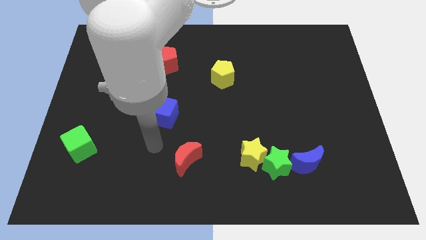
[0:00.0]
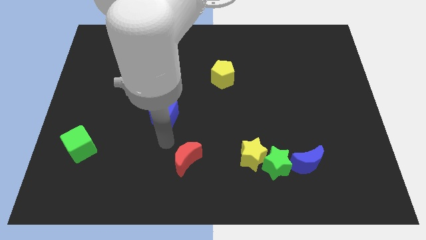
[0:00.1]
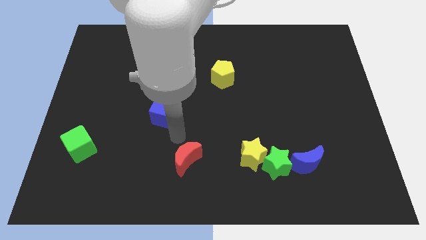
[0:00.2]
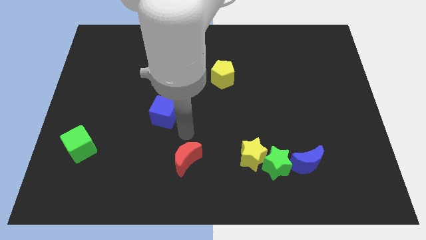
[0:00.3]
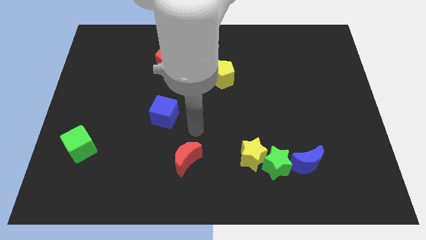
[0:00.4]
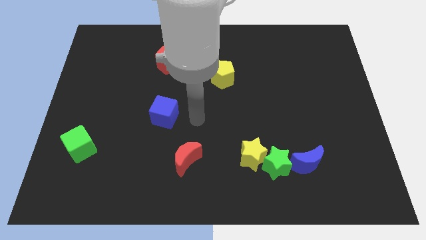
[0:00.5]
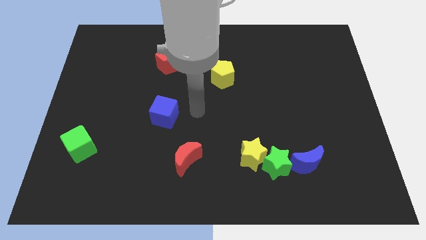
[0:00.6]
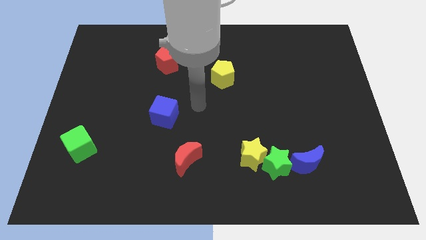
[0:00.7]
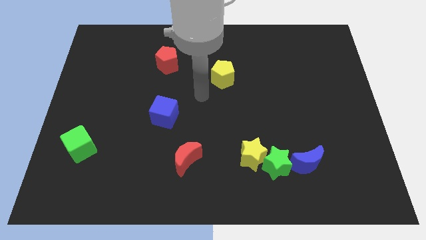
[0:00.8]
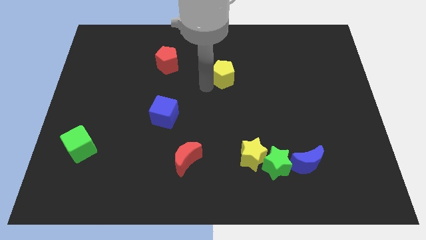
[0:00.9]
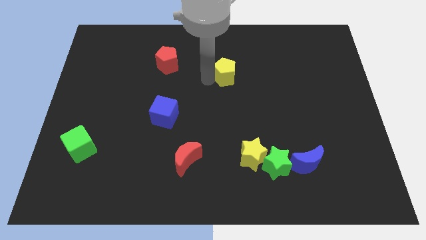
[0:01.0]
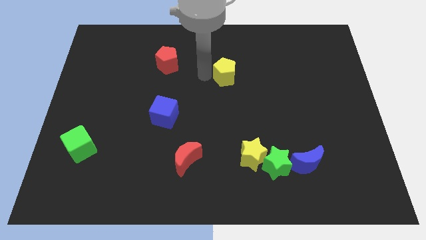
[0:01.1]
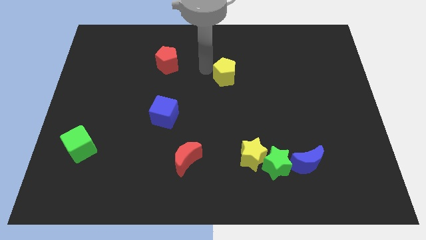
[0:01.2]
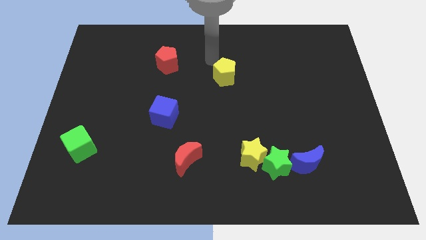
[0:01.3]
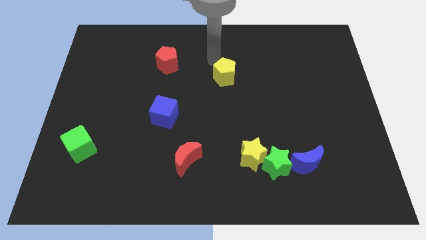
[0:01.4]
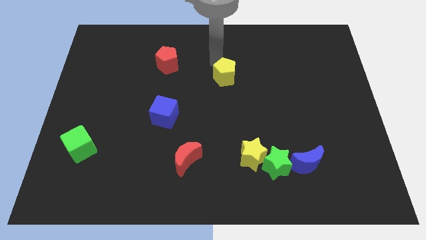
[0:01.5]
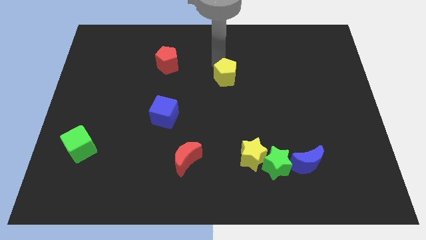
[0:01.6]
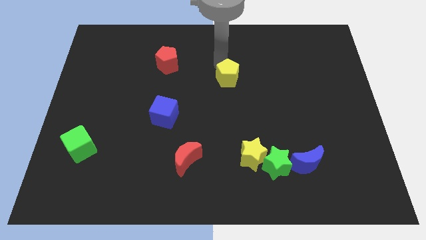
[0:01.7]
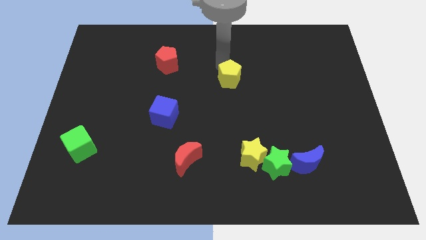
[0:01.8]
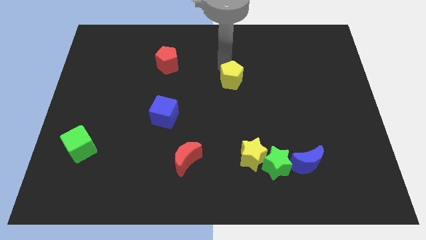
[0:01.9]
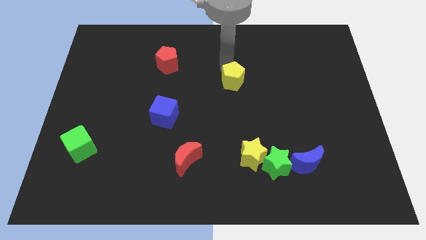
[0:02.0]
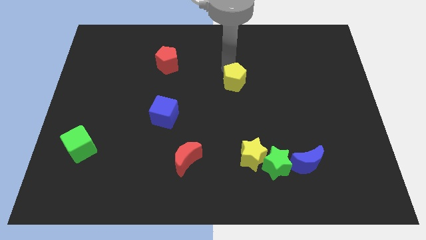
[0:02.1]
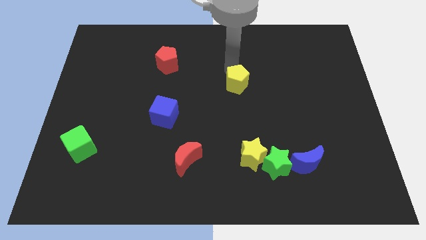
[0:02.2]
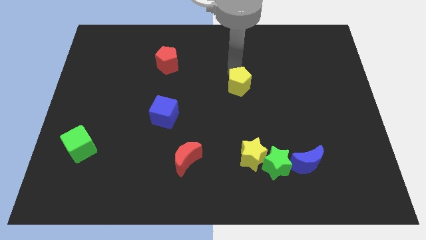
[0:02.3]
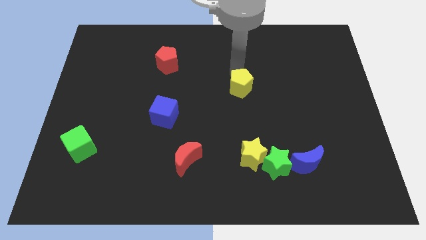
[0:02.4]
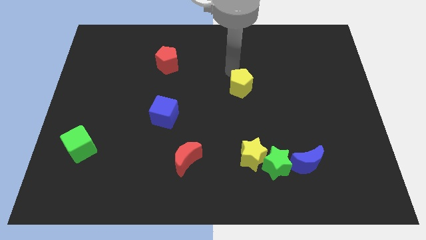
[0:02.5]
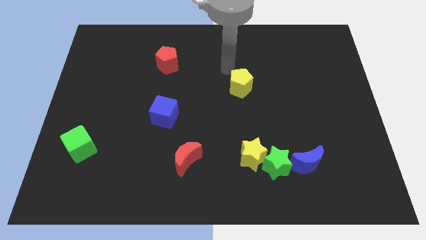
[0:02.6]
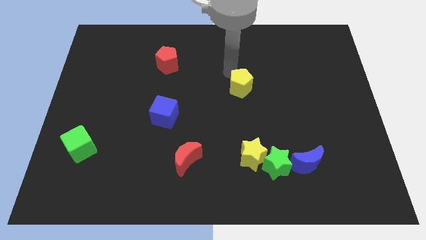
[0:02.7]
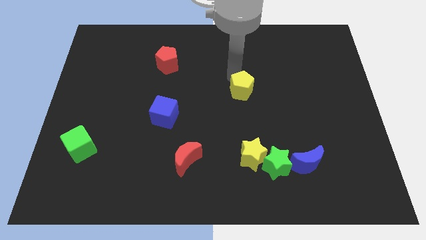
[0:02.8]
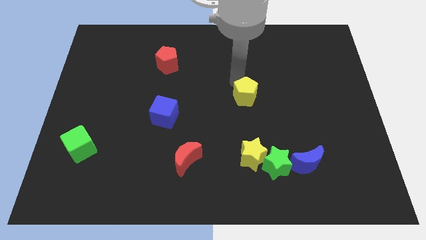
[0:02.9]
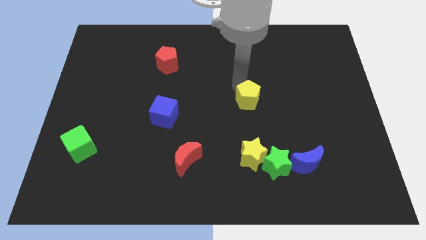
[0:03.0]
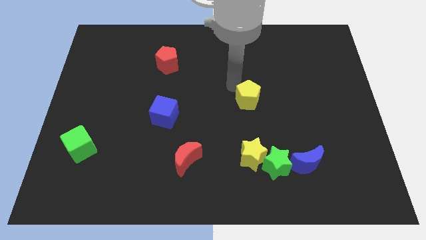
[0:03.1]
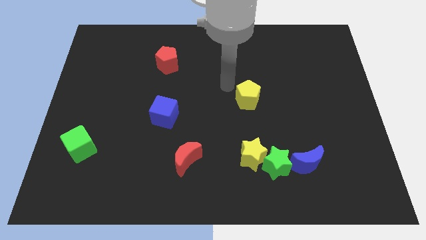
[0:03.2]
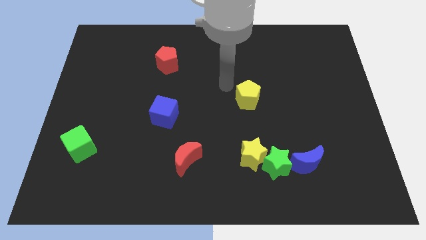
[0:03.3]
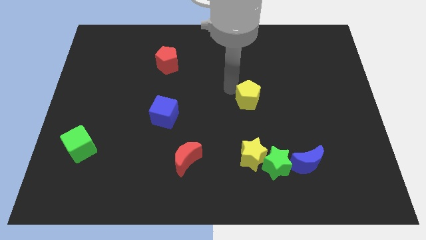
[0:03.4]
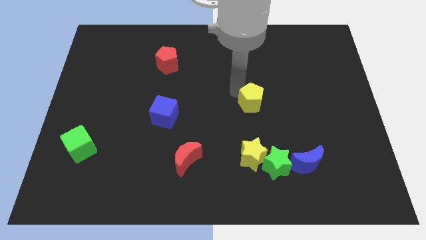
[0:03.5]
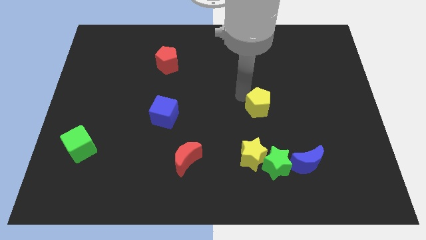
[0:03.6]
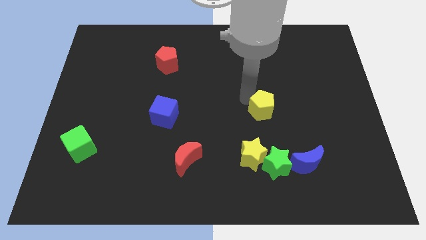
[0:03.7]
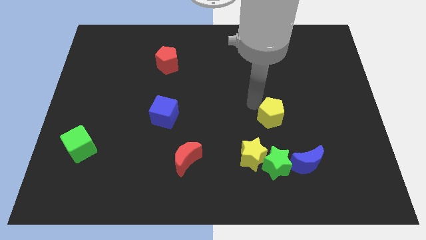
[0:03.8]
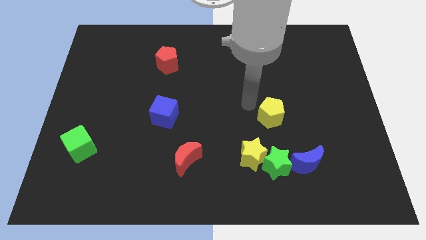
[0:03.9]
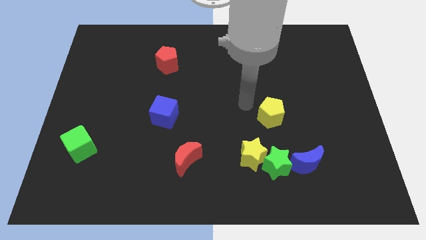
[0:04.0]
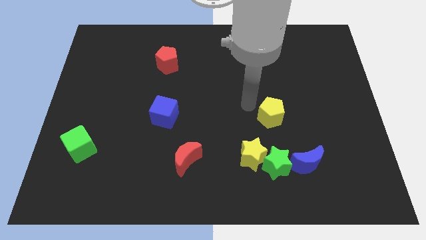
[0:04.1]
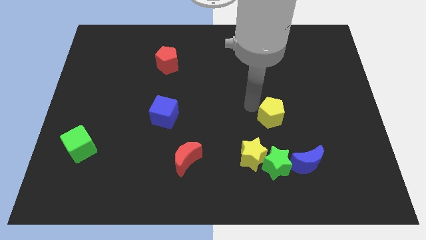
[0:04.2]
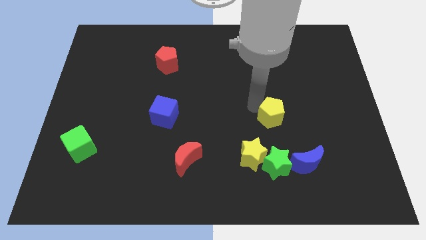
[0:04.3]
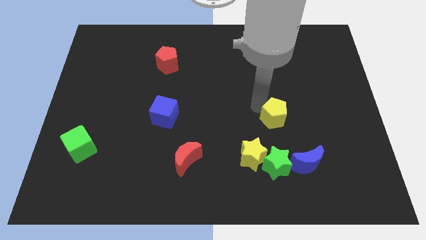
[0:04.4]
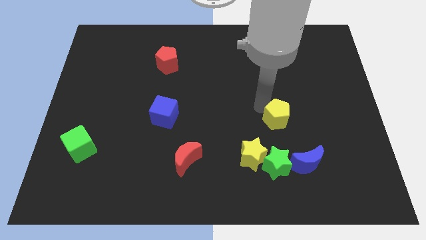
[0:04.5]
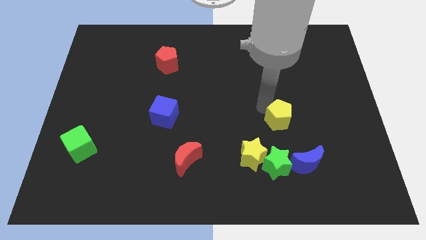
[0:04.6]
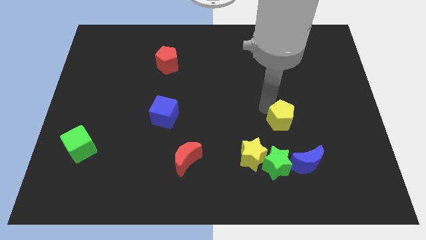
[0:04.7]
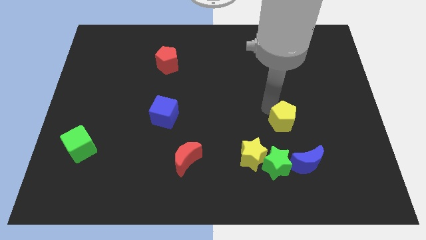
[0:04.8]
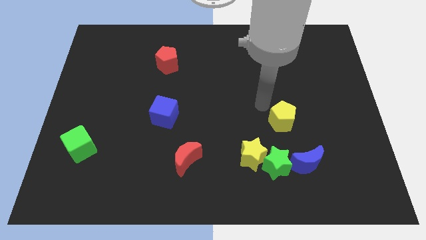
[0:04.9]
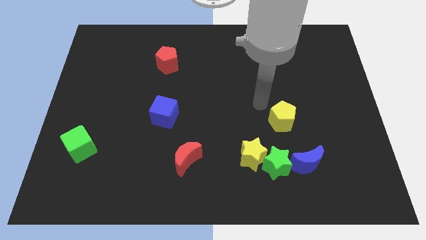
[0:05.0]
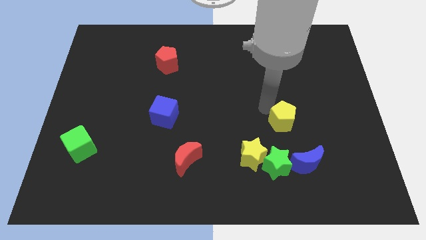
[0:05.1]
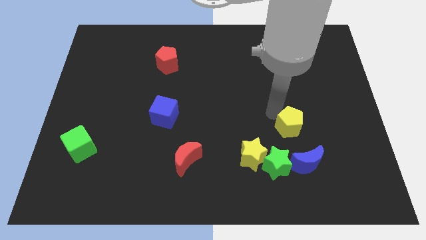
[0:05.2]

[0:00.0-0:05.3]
move the yellow pentagon downwards and right

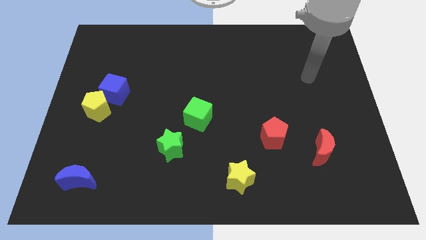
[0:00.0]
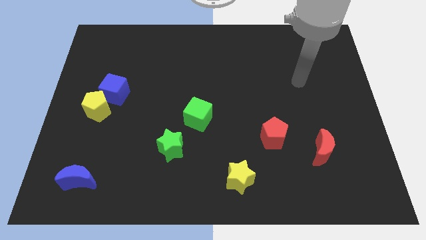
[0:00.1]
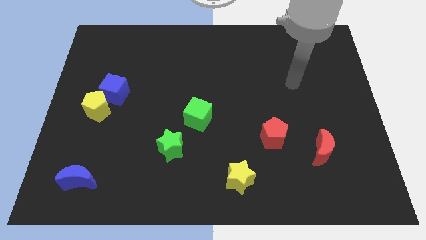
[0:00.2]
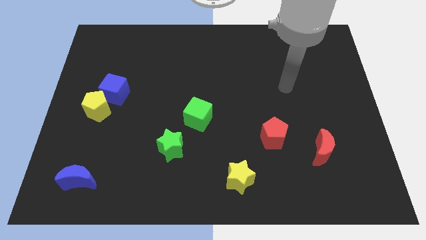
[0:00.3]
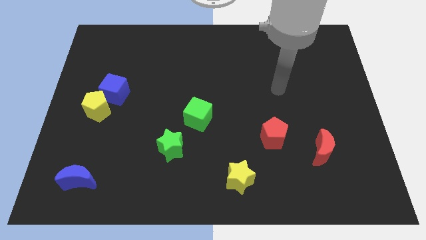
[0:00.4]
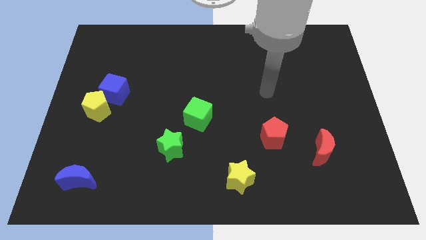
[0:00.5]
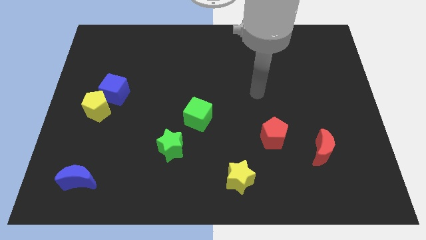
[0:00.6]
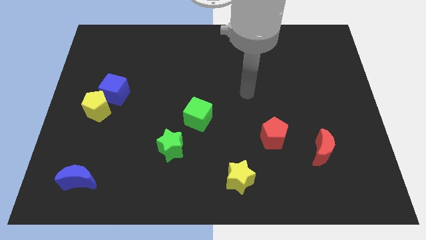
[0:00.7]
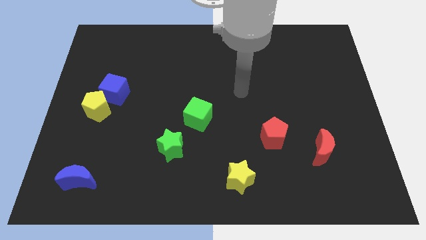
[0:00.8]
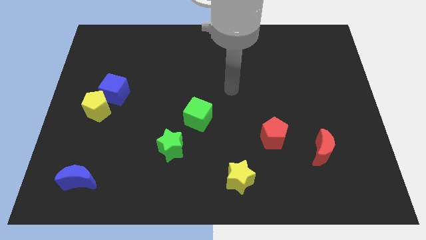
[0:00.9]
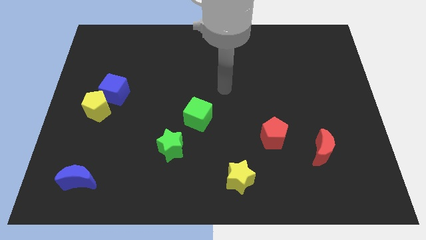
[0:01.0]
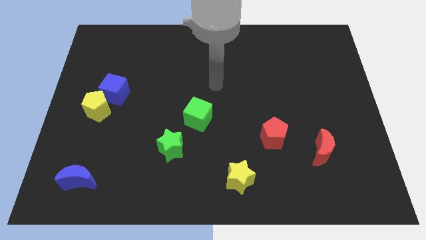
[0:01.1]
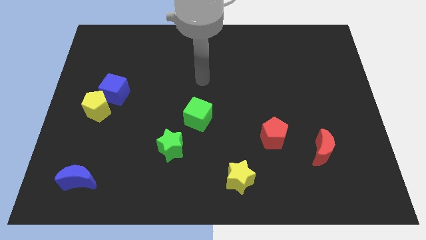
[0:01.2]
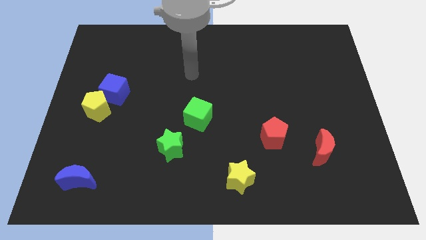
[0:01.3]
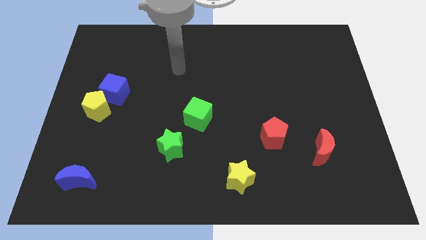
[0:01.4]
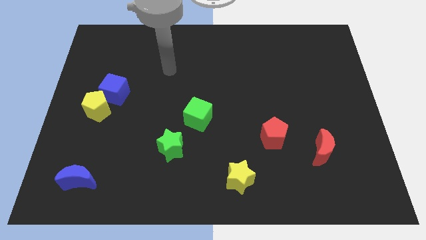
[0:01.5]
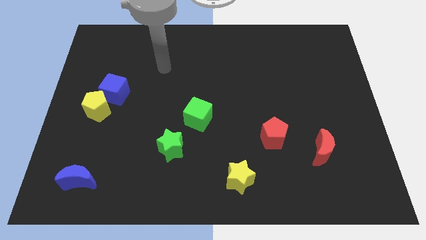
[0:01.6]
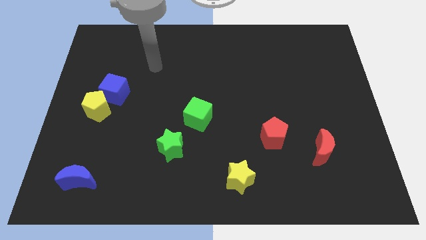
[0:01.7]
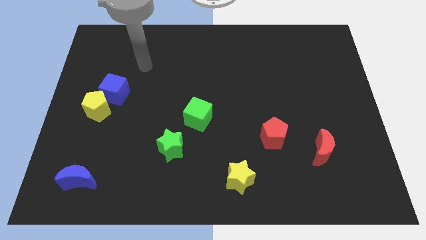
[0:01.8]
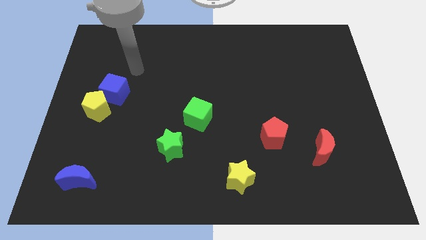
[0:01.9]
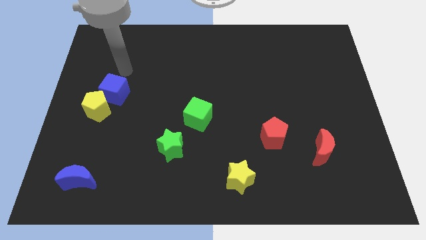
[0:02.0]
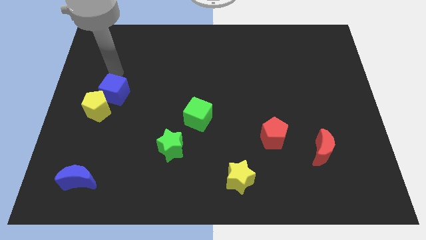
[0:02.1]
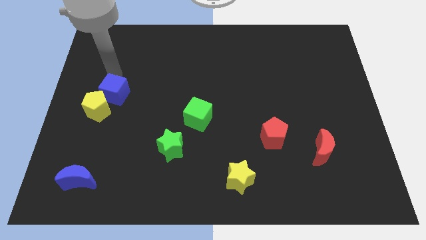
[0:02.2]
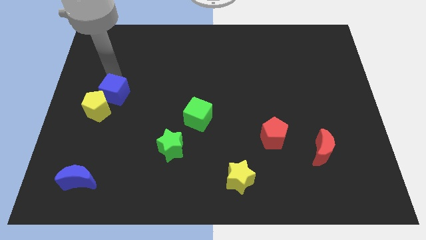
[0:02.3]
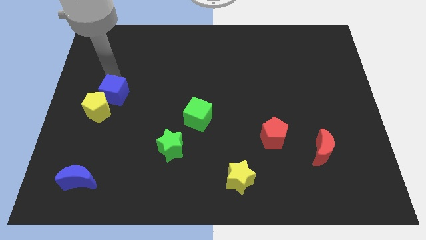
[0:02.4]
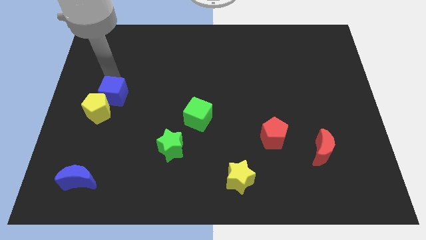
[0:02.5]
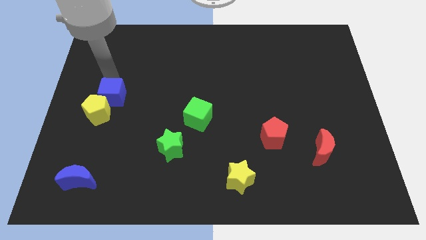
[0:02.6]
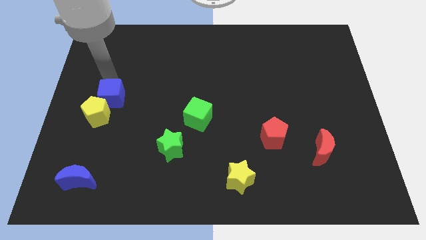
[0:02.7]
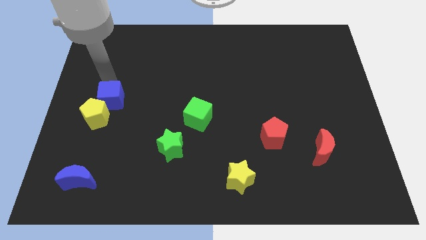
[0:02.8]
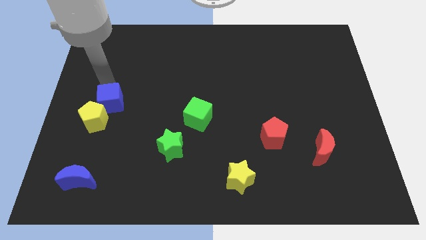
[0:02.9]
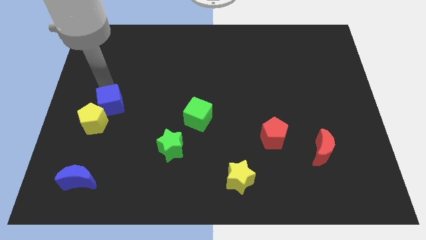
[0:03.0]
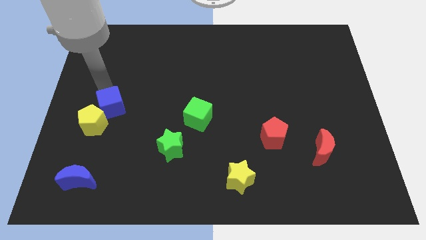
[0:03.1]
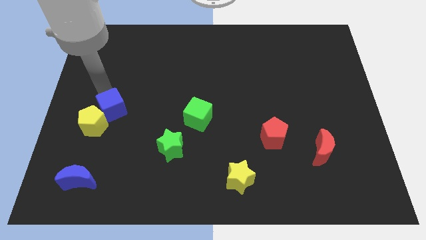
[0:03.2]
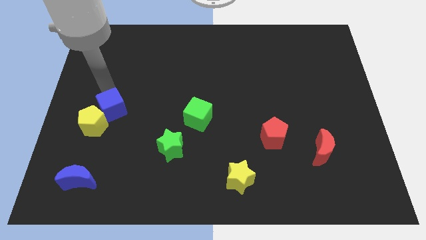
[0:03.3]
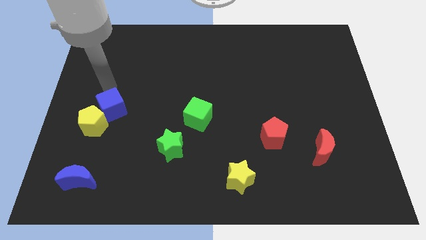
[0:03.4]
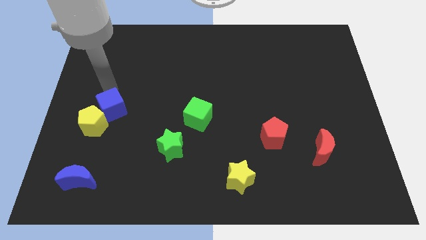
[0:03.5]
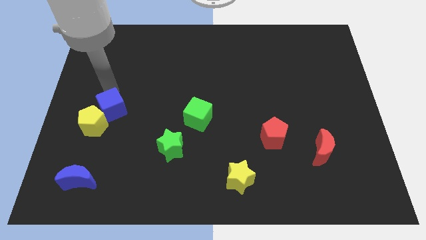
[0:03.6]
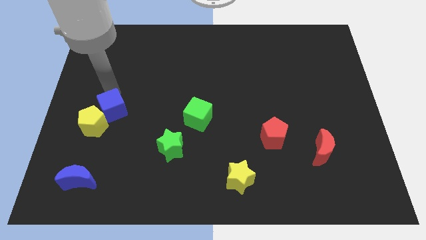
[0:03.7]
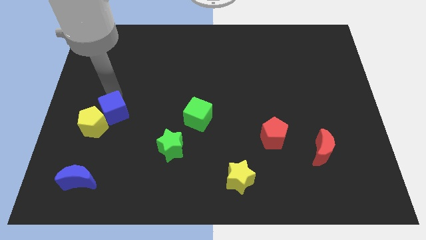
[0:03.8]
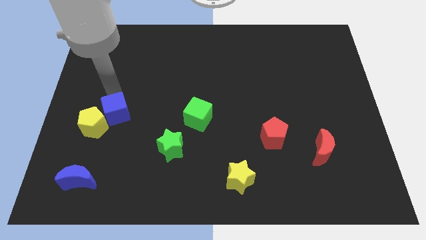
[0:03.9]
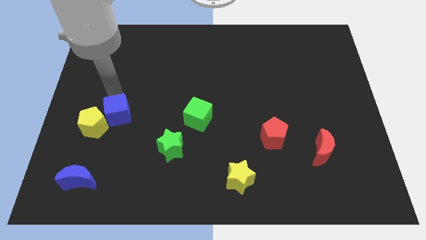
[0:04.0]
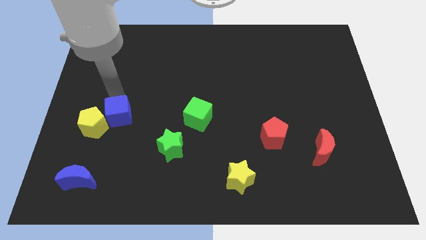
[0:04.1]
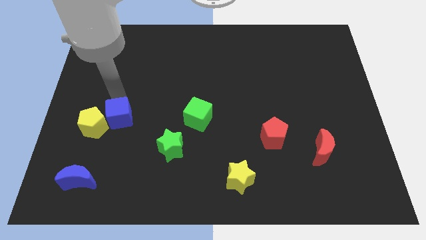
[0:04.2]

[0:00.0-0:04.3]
move the blue cube down a little bit
